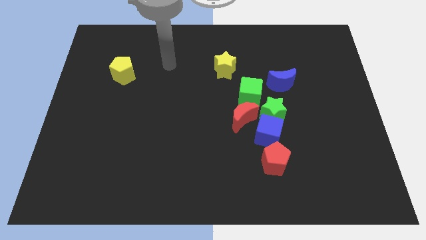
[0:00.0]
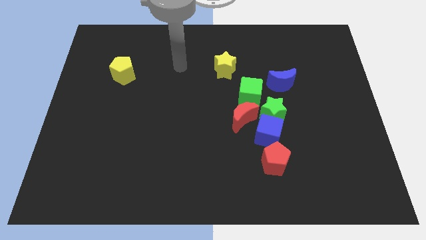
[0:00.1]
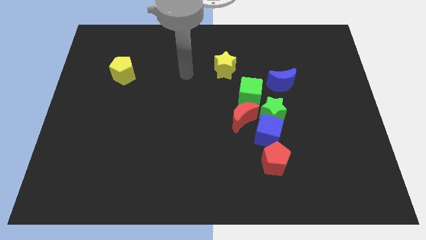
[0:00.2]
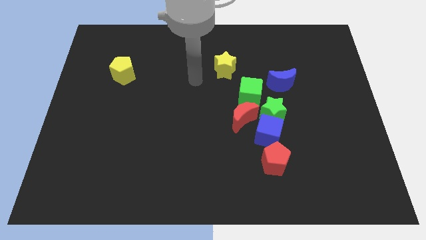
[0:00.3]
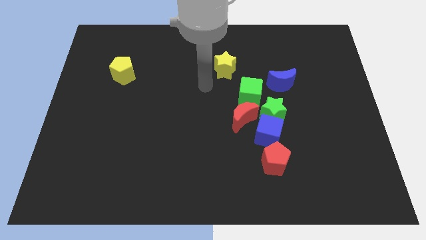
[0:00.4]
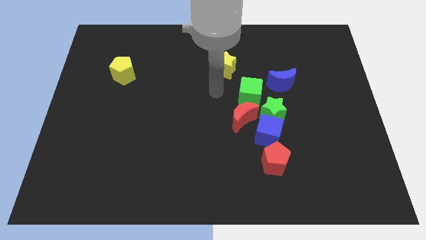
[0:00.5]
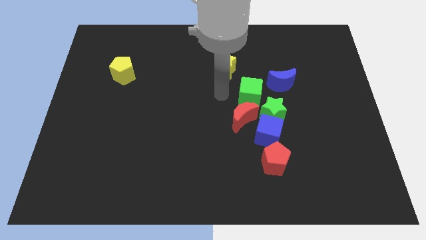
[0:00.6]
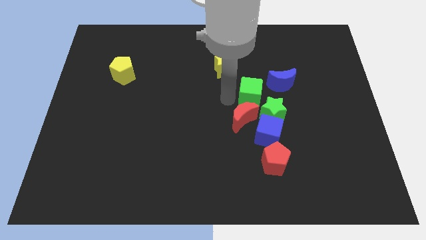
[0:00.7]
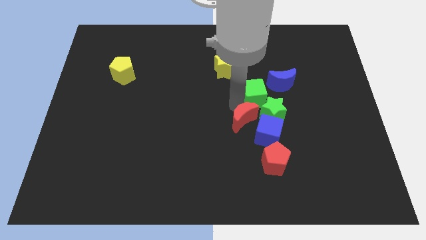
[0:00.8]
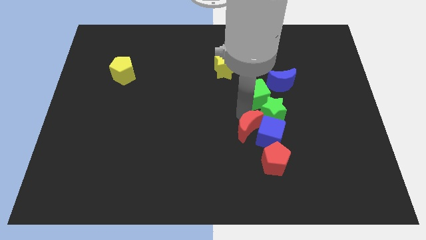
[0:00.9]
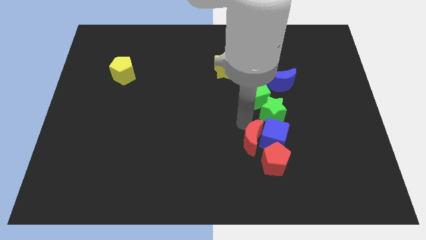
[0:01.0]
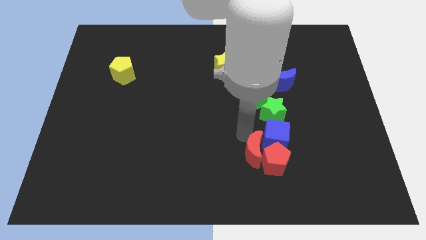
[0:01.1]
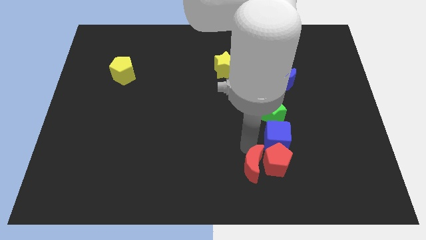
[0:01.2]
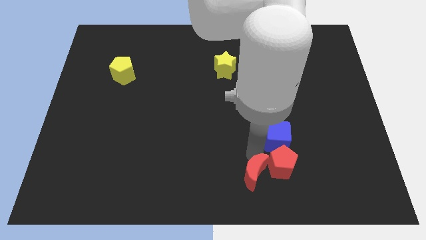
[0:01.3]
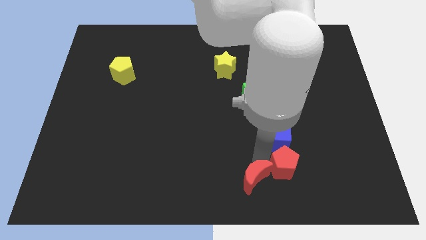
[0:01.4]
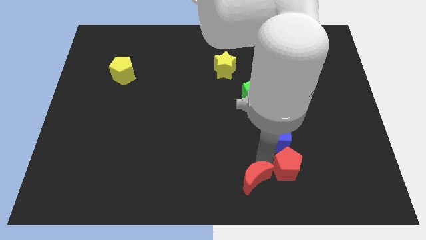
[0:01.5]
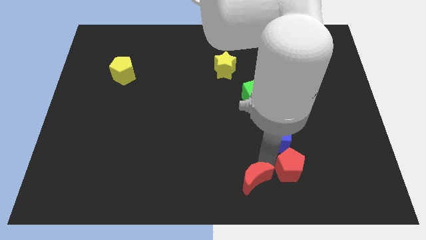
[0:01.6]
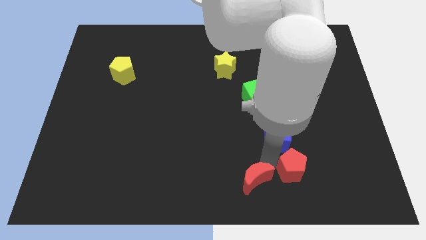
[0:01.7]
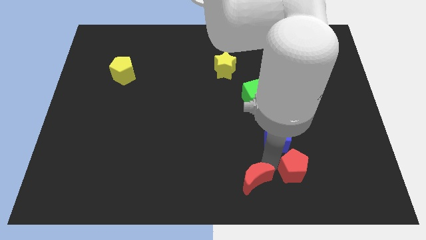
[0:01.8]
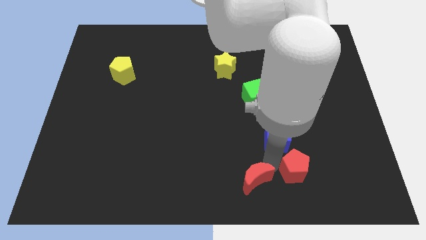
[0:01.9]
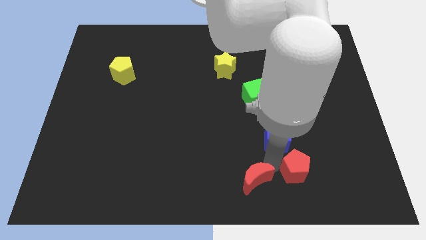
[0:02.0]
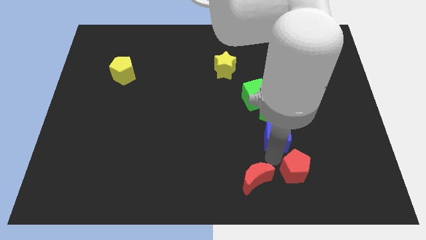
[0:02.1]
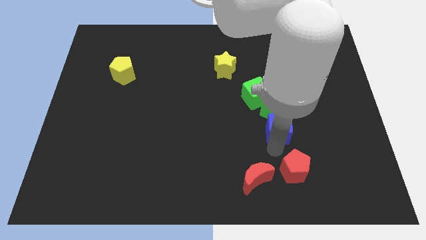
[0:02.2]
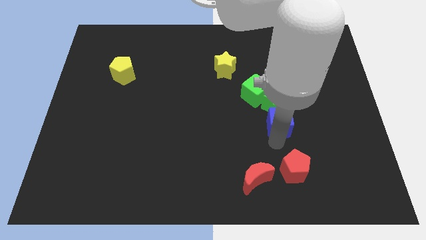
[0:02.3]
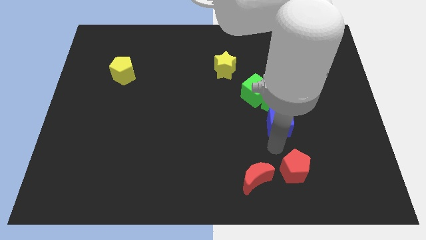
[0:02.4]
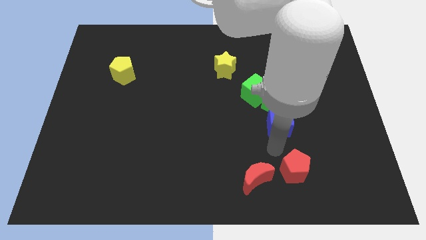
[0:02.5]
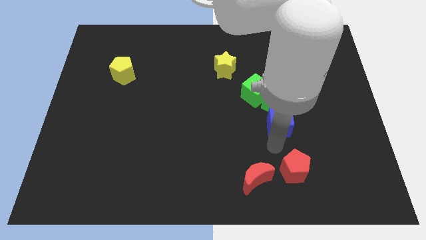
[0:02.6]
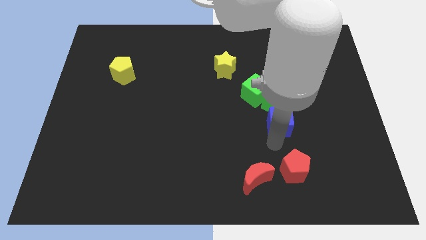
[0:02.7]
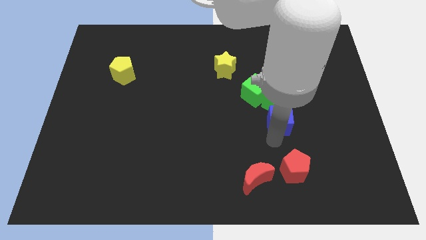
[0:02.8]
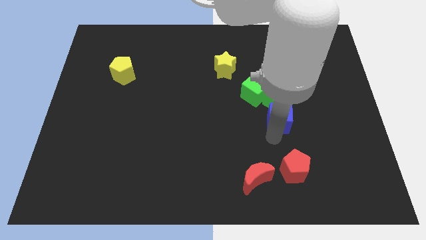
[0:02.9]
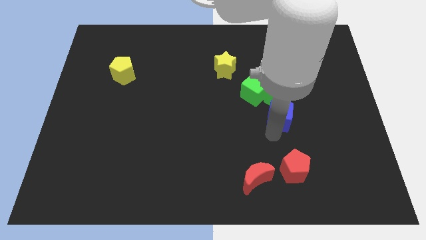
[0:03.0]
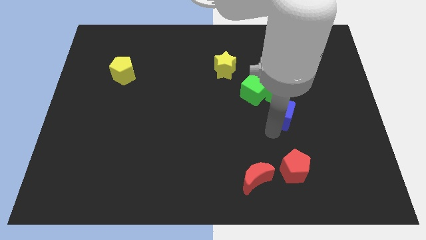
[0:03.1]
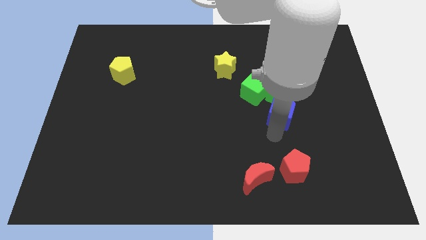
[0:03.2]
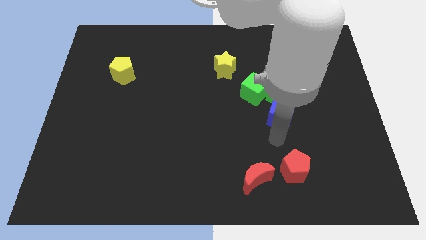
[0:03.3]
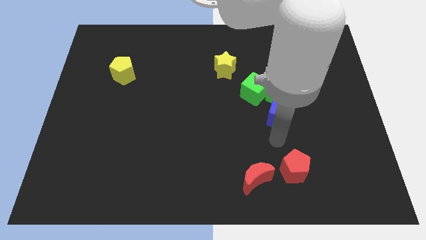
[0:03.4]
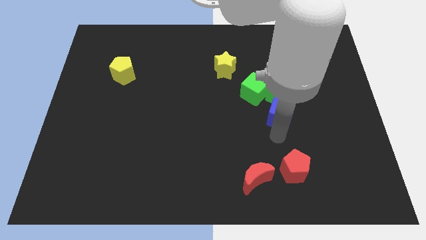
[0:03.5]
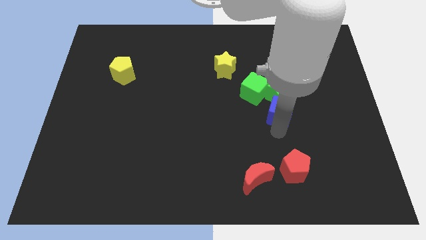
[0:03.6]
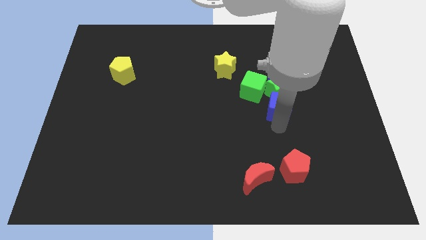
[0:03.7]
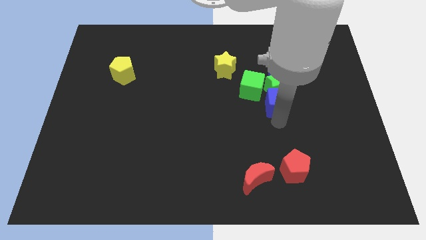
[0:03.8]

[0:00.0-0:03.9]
pull the blue cube apart from the green star, red moon, and red pentagon

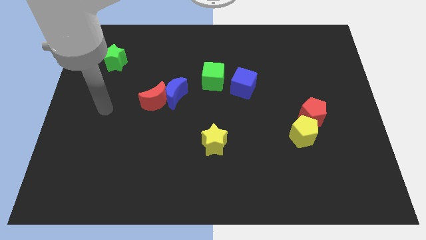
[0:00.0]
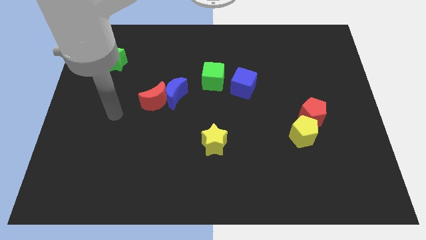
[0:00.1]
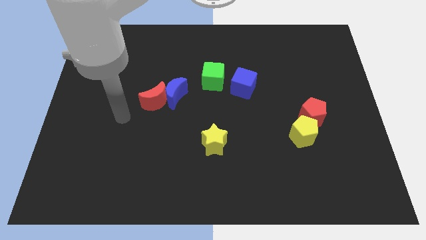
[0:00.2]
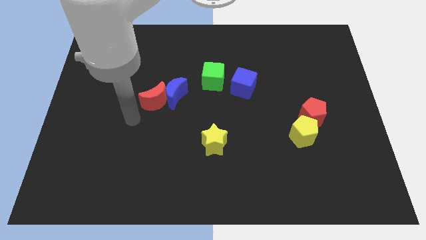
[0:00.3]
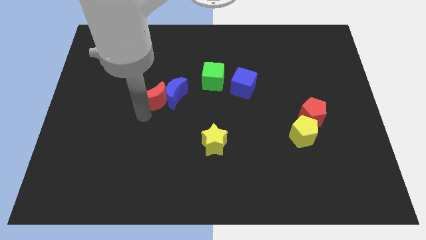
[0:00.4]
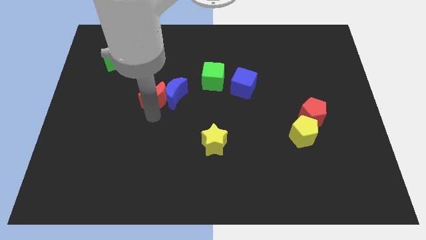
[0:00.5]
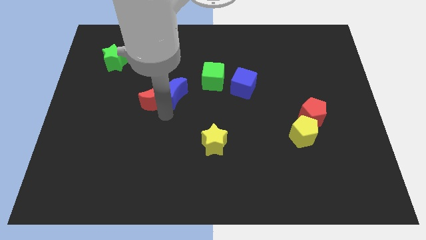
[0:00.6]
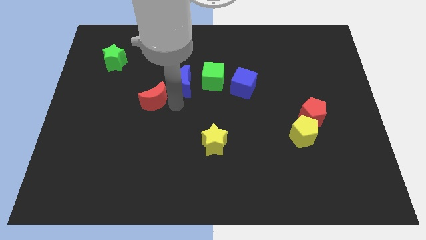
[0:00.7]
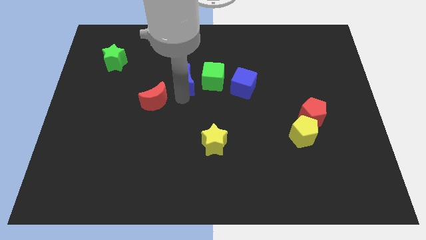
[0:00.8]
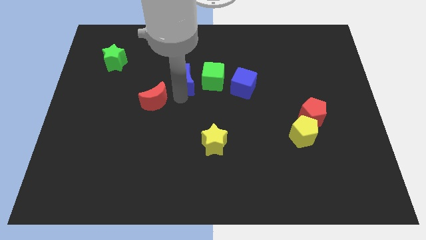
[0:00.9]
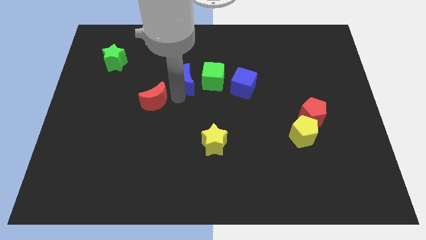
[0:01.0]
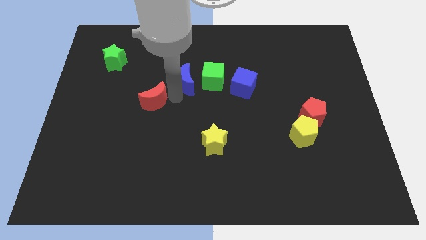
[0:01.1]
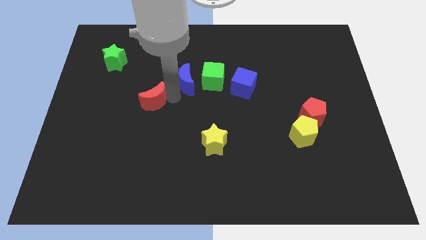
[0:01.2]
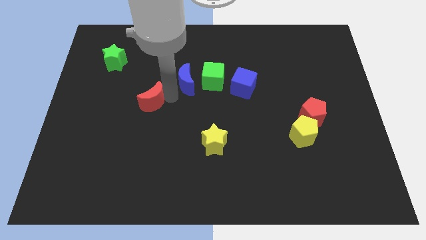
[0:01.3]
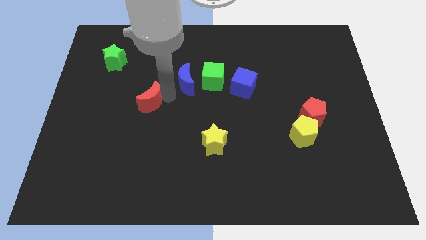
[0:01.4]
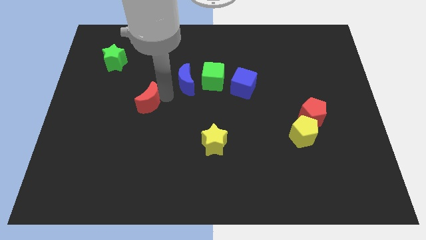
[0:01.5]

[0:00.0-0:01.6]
separate the red moon from the blue moon

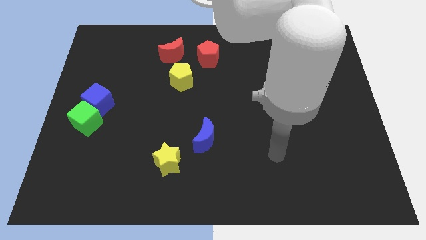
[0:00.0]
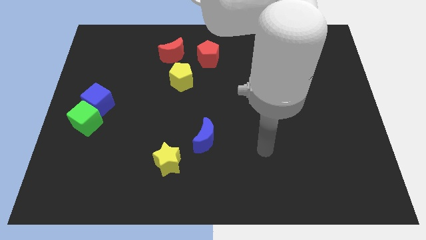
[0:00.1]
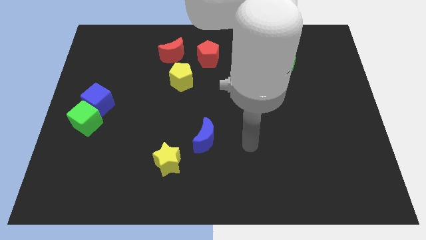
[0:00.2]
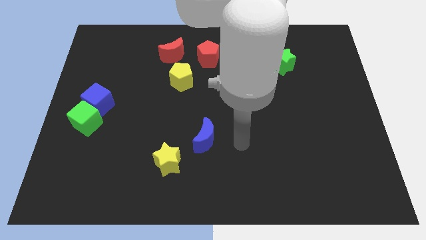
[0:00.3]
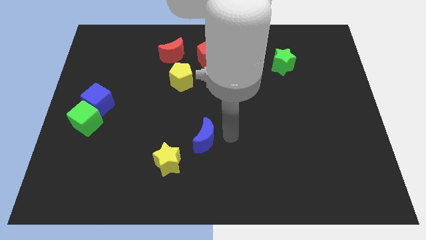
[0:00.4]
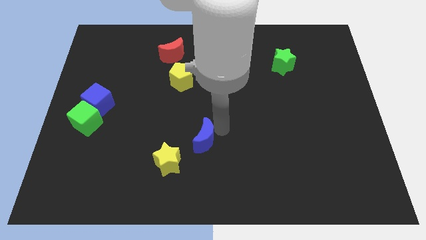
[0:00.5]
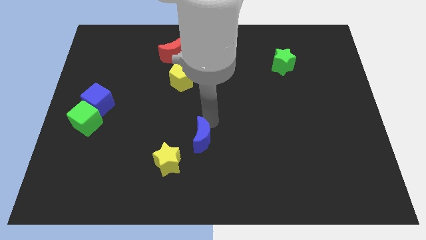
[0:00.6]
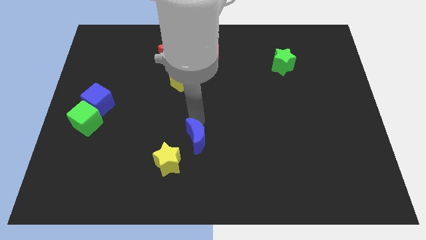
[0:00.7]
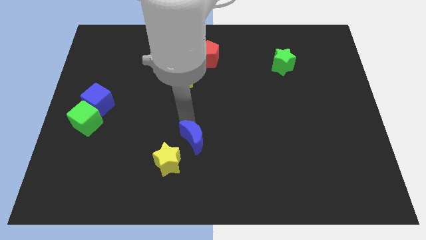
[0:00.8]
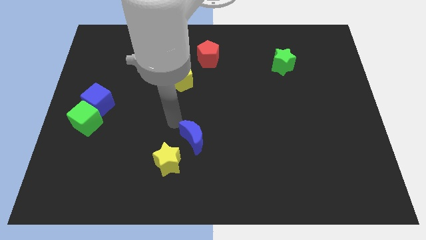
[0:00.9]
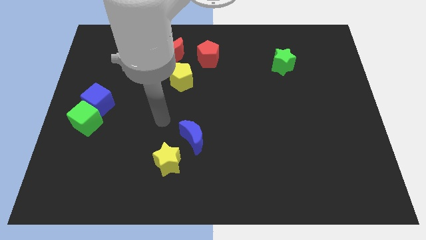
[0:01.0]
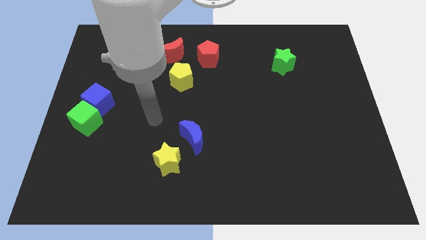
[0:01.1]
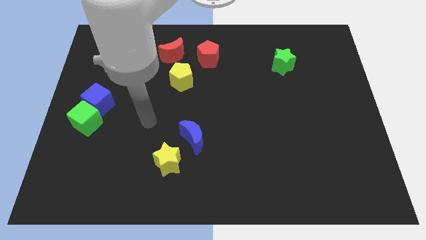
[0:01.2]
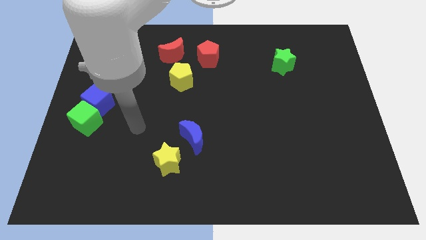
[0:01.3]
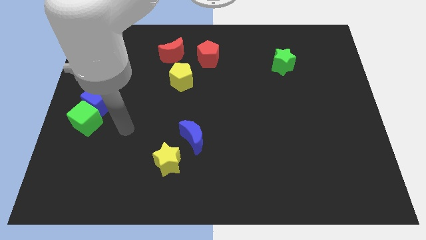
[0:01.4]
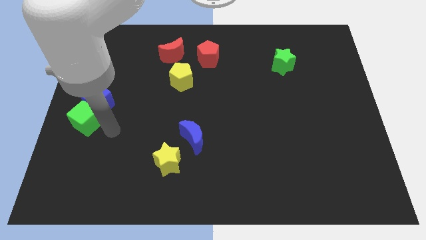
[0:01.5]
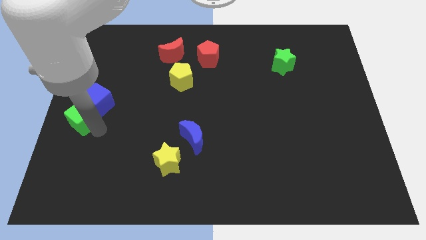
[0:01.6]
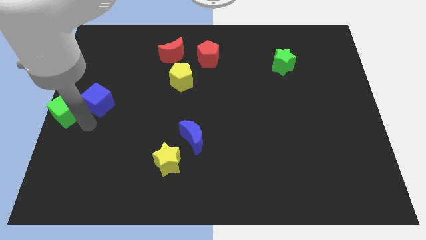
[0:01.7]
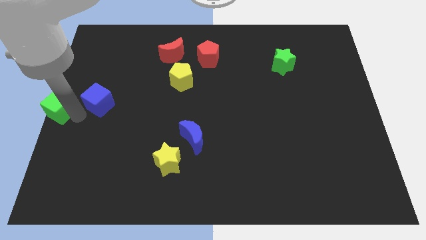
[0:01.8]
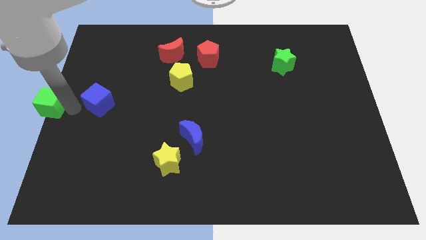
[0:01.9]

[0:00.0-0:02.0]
separate the blue cube from the green cube

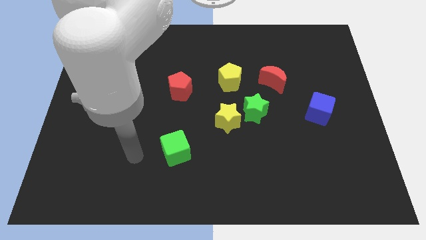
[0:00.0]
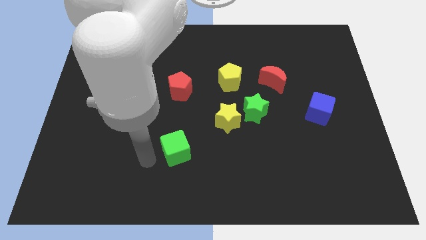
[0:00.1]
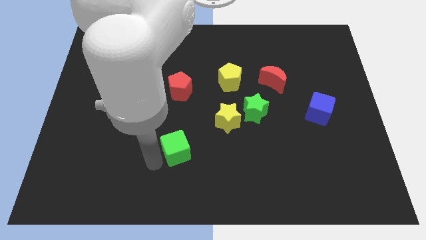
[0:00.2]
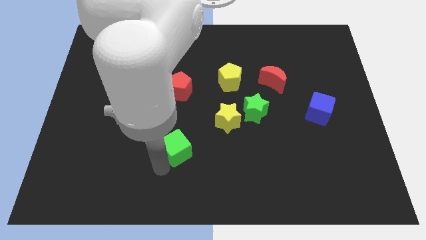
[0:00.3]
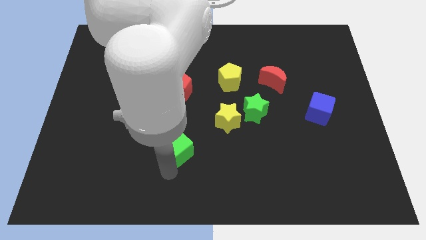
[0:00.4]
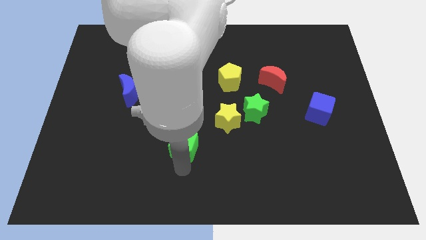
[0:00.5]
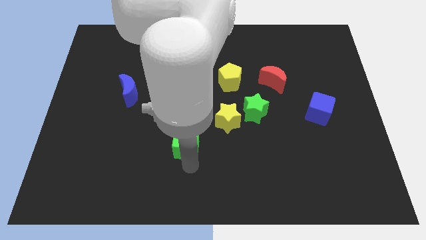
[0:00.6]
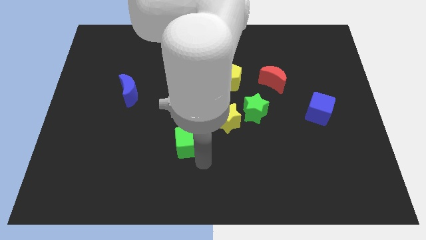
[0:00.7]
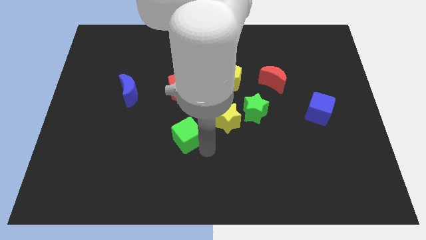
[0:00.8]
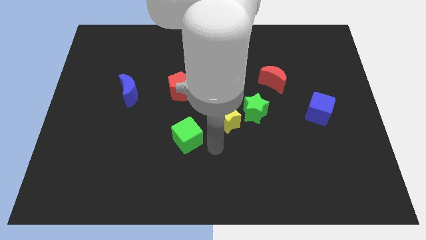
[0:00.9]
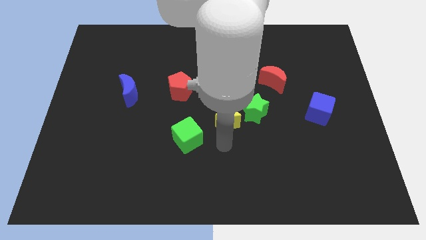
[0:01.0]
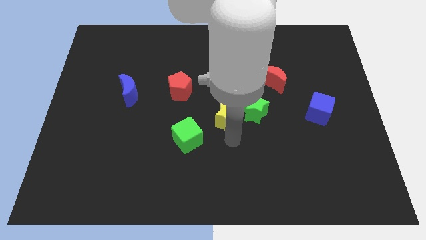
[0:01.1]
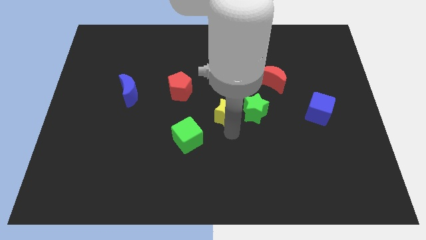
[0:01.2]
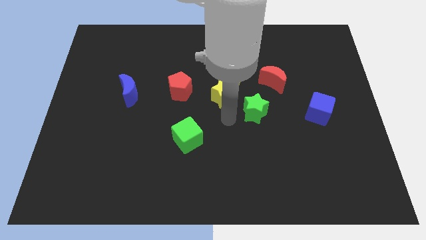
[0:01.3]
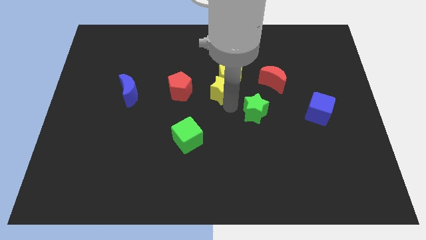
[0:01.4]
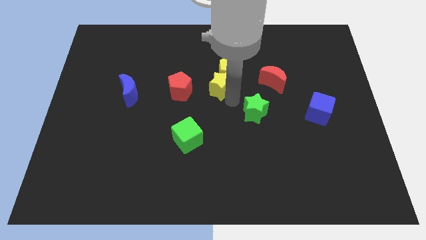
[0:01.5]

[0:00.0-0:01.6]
separate the green star from the yellow star

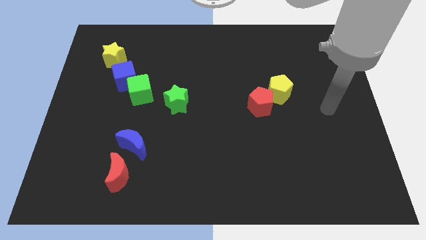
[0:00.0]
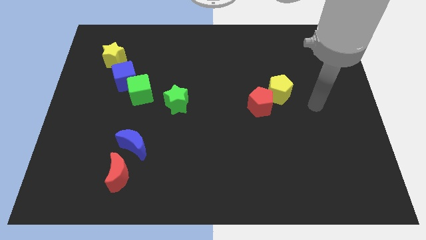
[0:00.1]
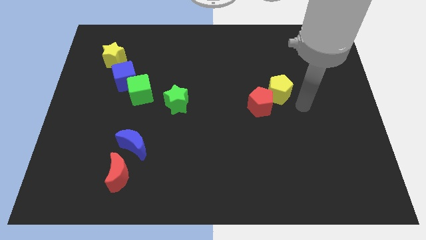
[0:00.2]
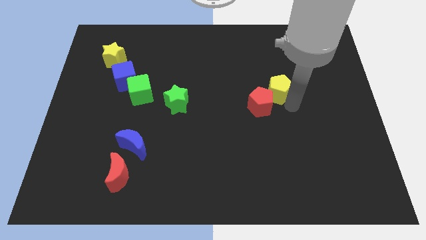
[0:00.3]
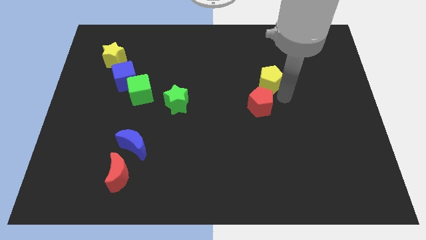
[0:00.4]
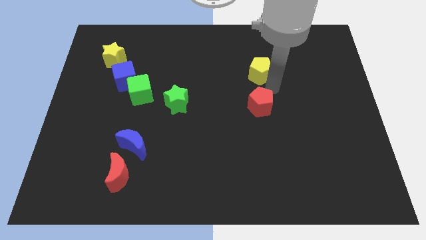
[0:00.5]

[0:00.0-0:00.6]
separate the red pentagon from the yellow pentagon
